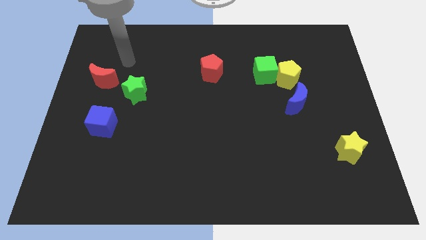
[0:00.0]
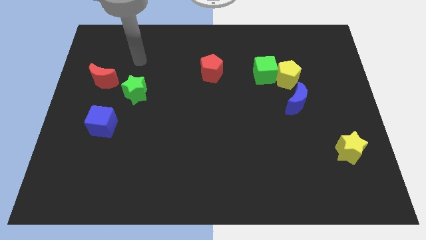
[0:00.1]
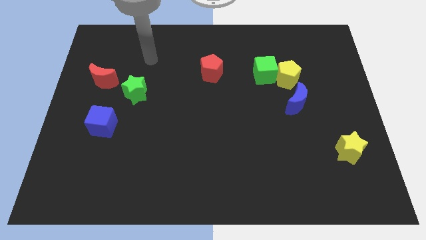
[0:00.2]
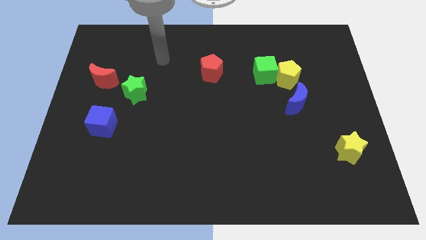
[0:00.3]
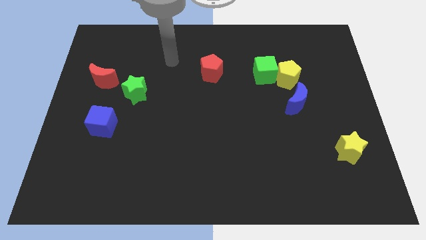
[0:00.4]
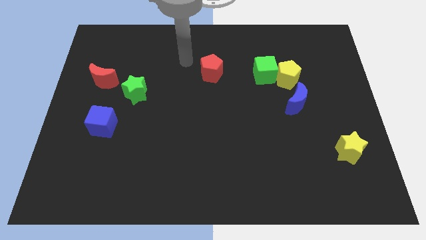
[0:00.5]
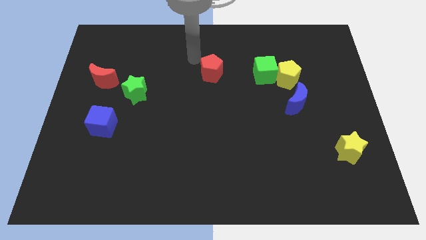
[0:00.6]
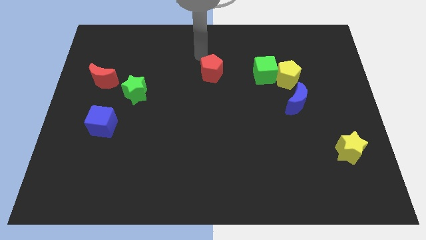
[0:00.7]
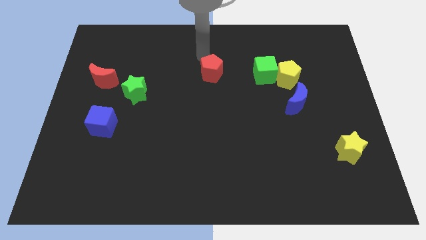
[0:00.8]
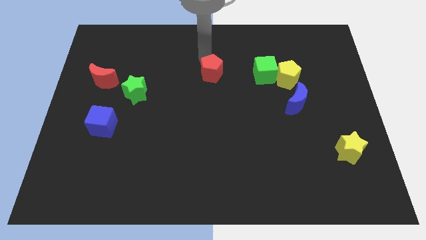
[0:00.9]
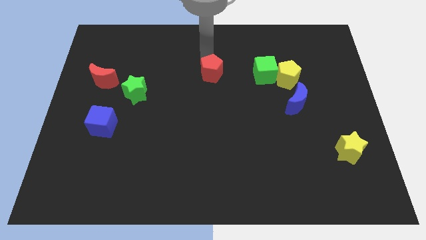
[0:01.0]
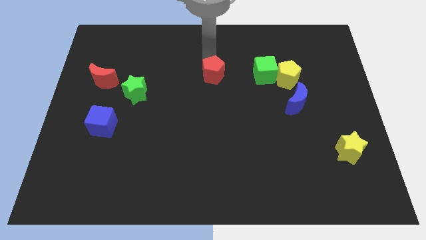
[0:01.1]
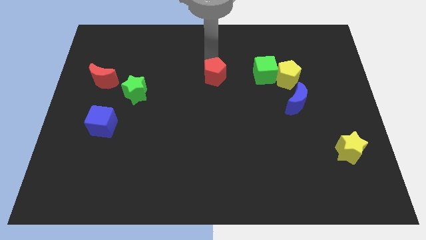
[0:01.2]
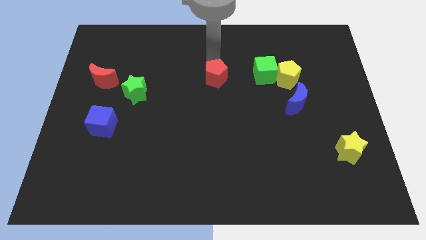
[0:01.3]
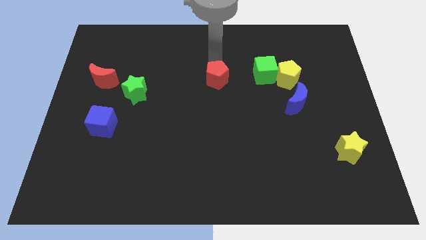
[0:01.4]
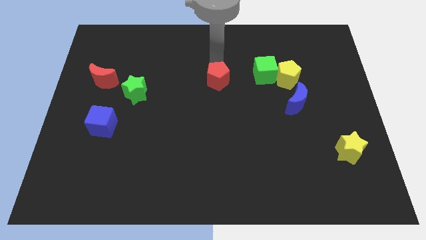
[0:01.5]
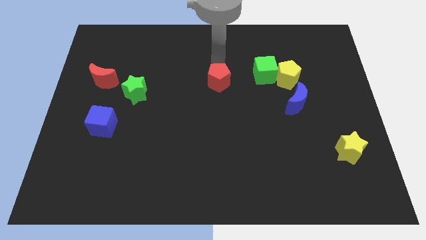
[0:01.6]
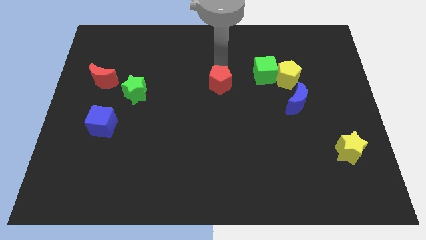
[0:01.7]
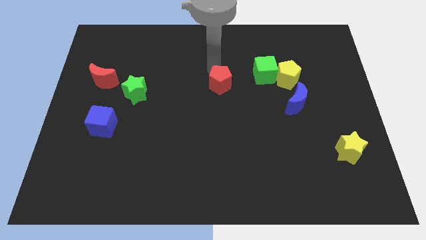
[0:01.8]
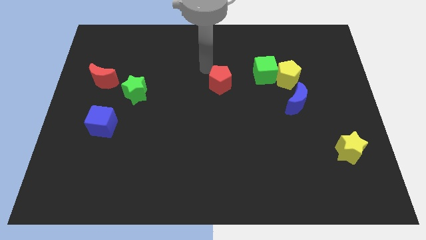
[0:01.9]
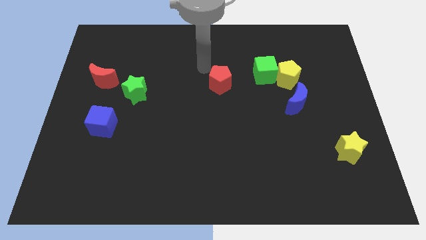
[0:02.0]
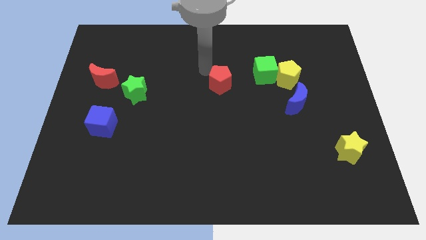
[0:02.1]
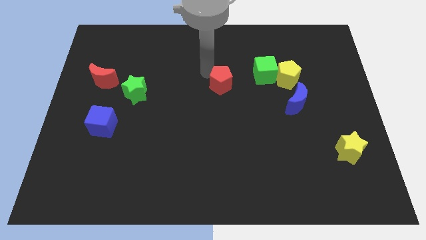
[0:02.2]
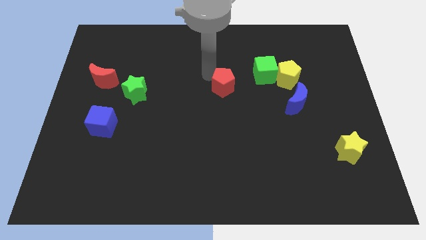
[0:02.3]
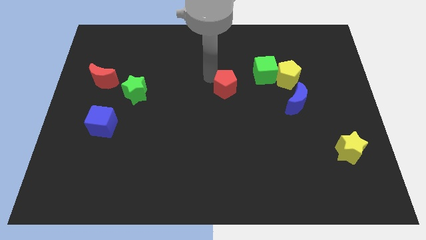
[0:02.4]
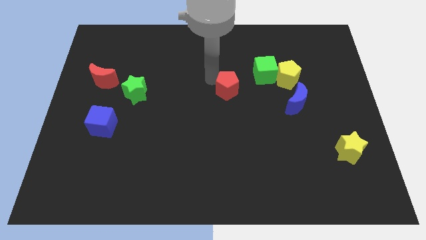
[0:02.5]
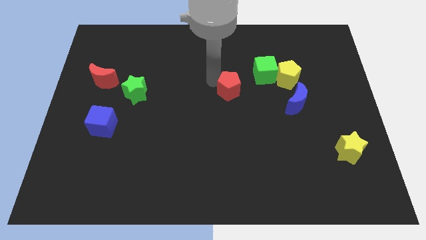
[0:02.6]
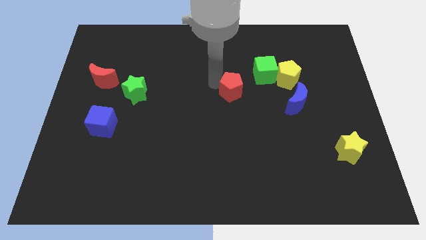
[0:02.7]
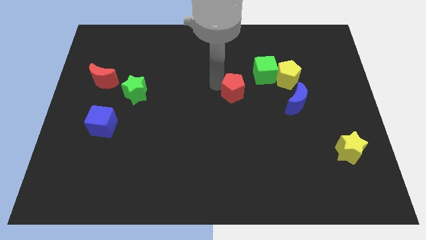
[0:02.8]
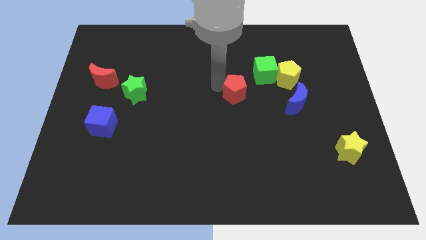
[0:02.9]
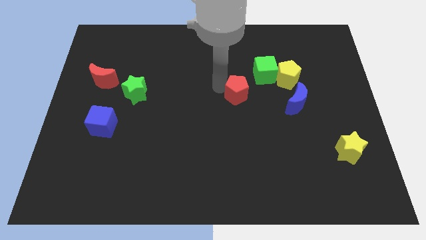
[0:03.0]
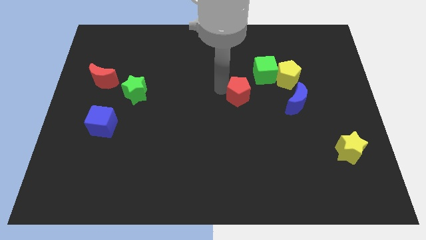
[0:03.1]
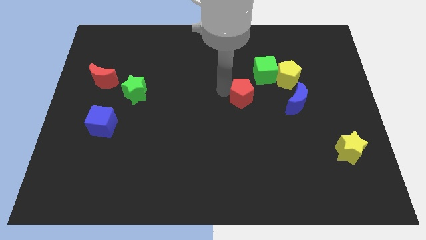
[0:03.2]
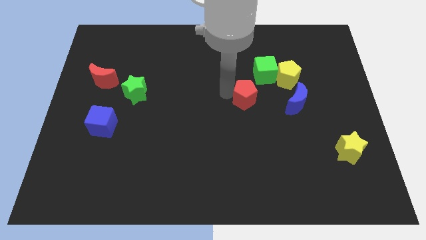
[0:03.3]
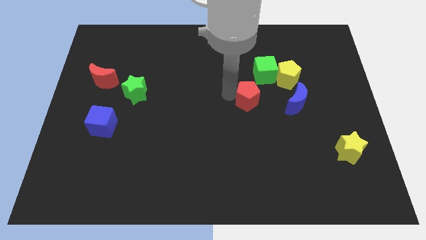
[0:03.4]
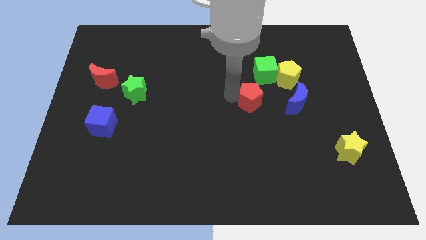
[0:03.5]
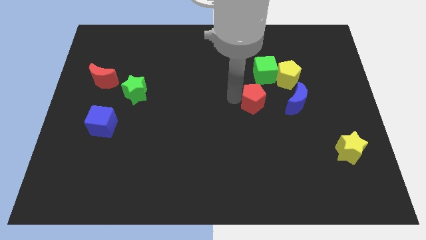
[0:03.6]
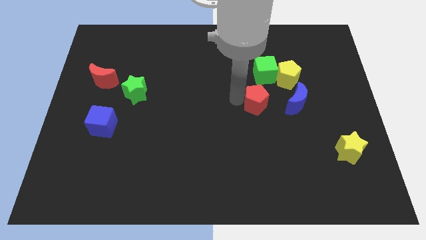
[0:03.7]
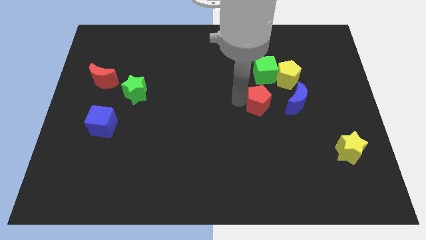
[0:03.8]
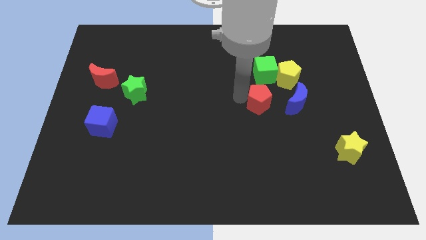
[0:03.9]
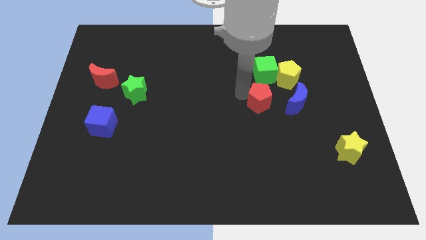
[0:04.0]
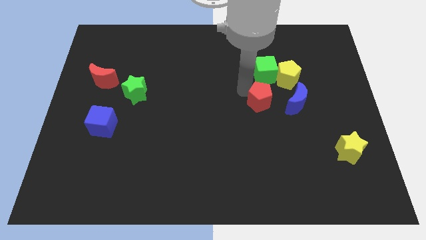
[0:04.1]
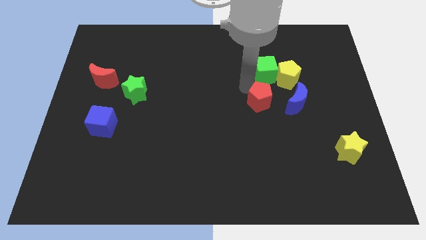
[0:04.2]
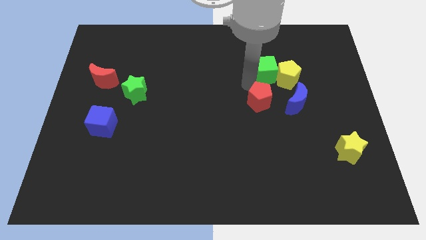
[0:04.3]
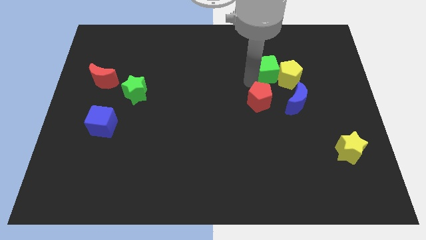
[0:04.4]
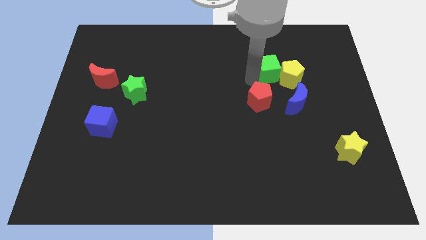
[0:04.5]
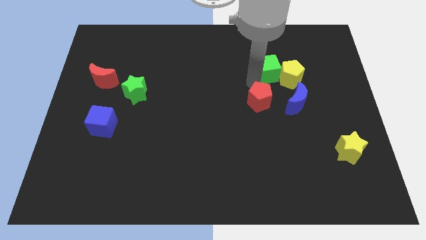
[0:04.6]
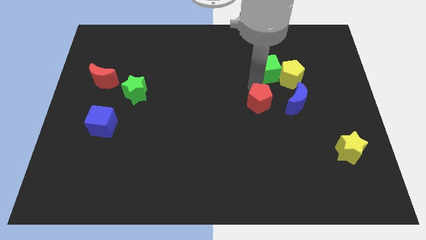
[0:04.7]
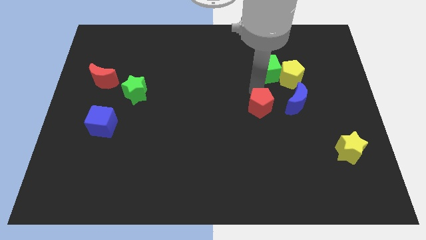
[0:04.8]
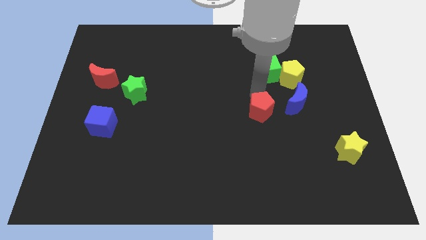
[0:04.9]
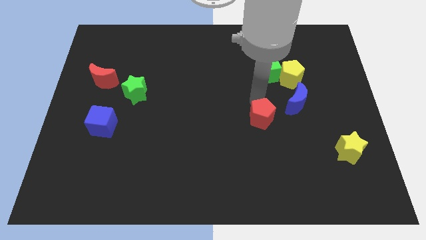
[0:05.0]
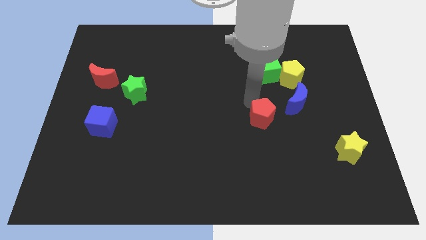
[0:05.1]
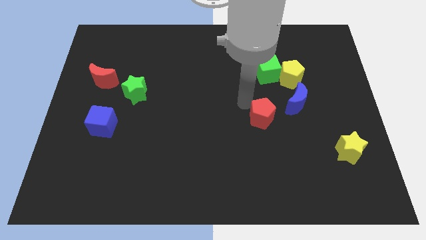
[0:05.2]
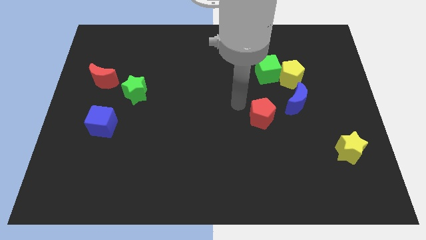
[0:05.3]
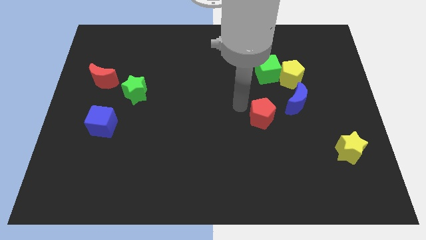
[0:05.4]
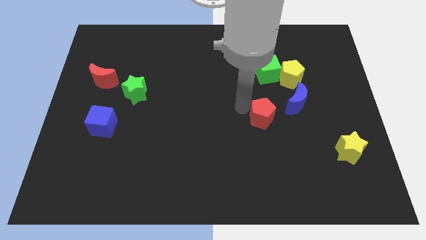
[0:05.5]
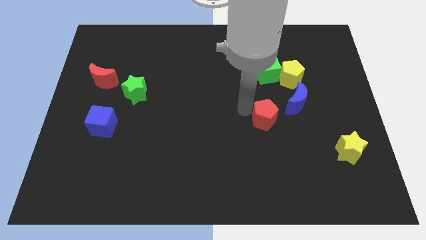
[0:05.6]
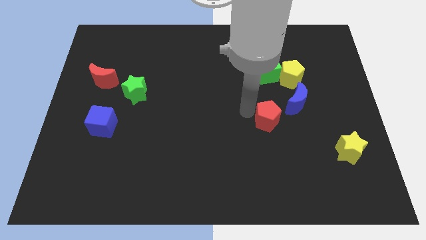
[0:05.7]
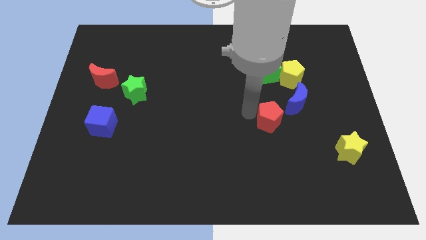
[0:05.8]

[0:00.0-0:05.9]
push the red pentagon down and to the right diagonally

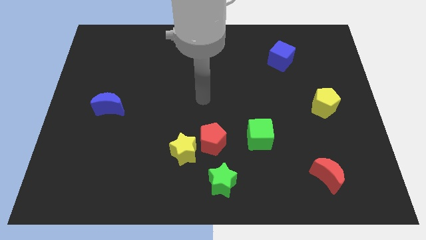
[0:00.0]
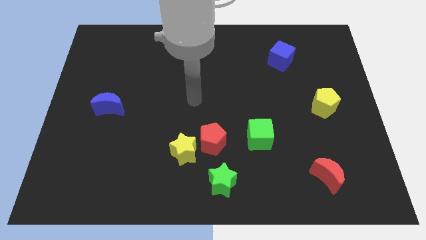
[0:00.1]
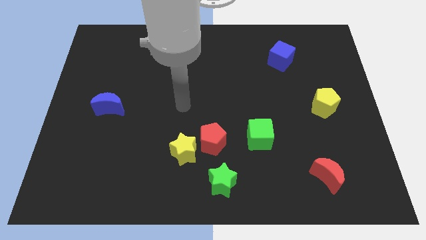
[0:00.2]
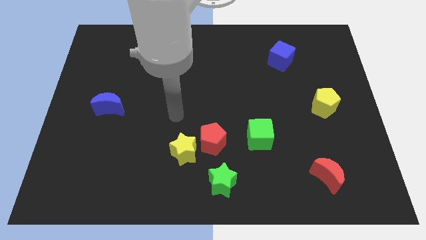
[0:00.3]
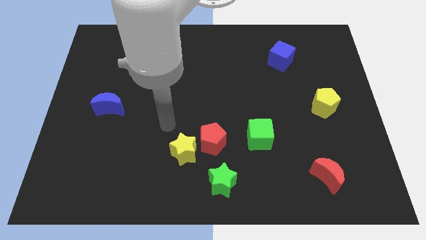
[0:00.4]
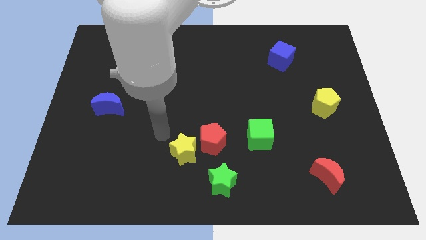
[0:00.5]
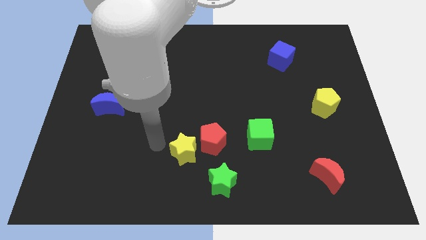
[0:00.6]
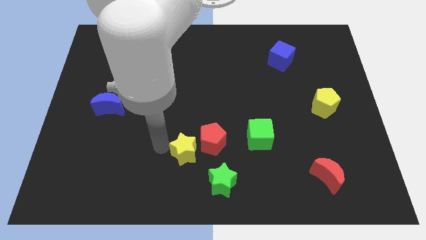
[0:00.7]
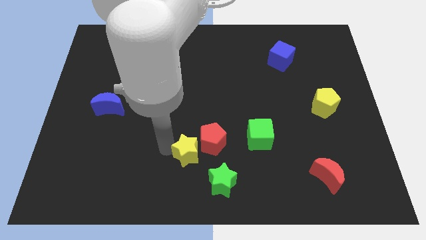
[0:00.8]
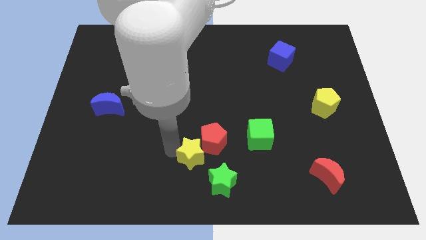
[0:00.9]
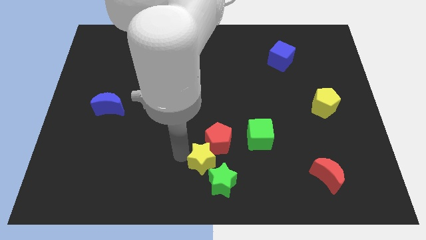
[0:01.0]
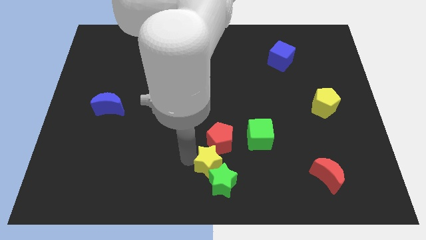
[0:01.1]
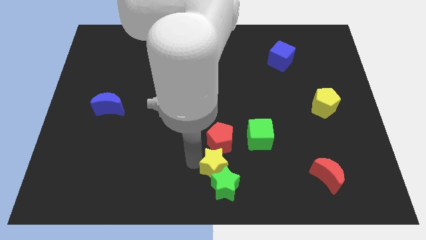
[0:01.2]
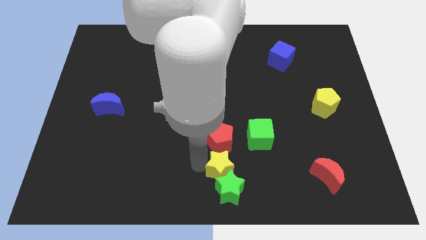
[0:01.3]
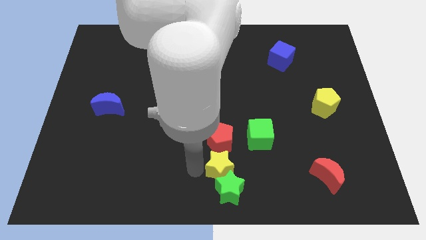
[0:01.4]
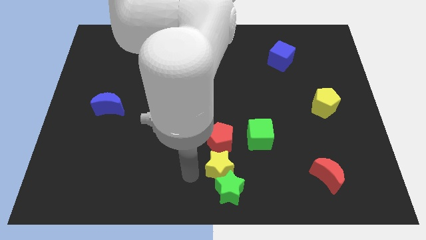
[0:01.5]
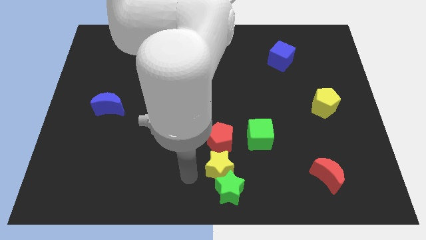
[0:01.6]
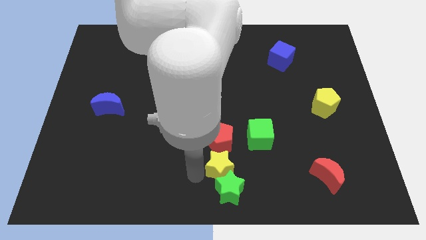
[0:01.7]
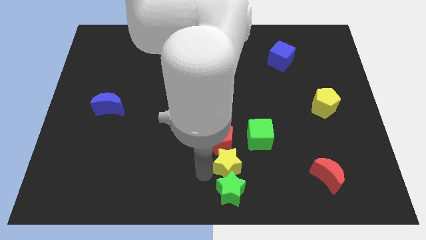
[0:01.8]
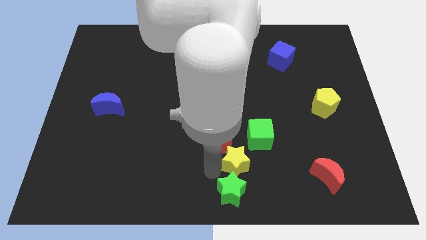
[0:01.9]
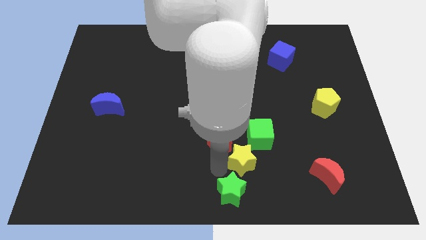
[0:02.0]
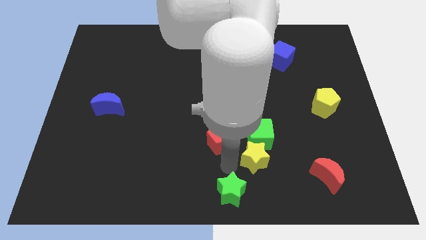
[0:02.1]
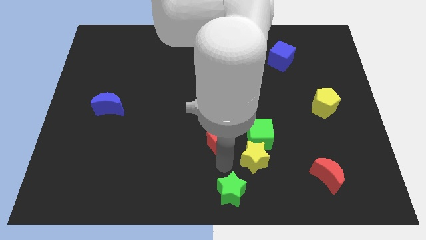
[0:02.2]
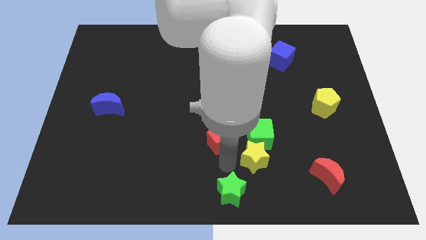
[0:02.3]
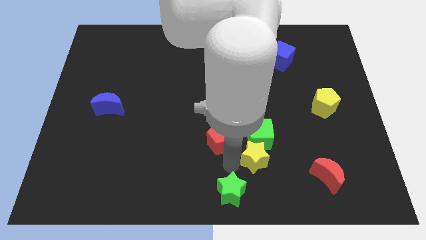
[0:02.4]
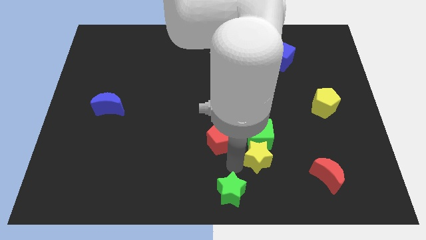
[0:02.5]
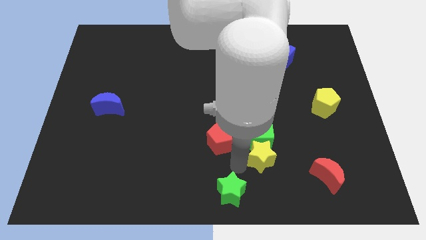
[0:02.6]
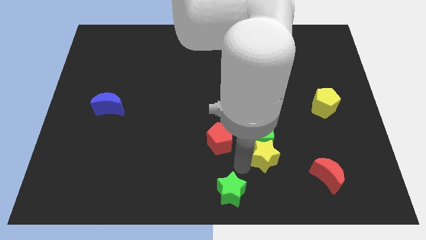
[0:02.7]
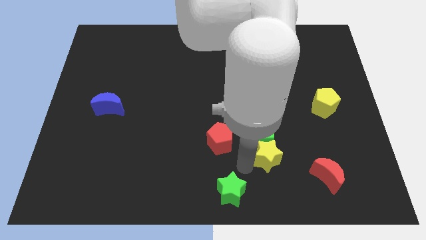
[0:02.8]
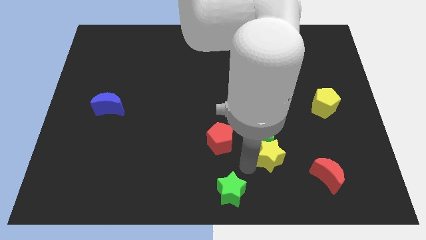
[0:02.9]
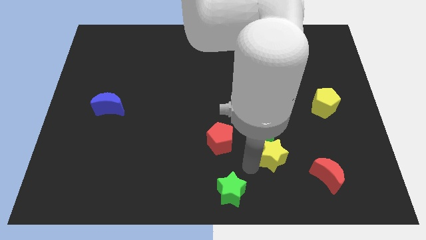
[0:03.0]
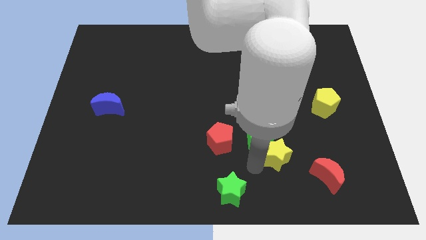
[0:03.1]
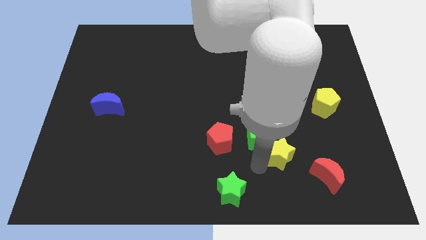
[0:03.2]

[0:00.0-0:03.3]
slide the yellow star right
